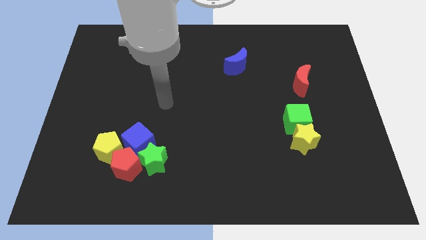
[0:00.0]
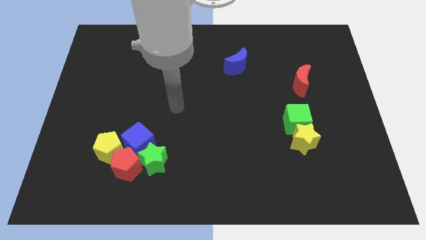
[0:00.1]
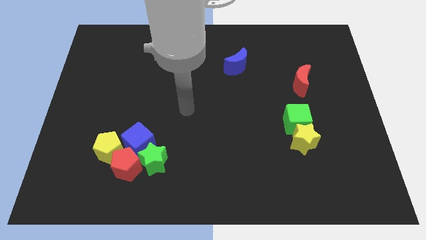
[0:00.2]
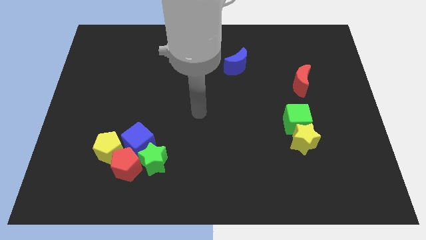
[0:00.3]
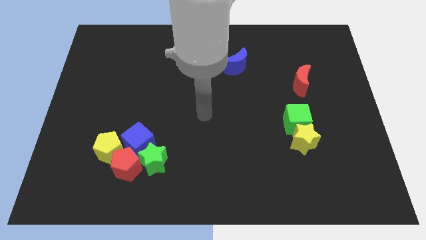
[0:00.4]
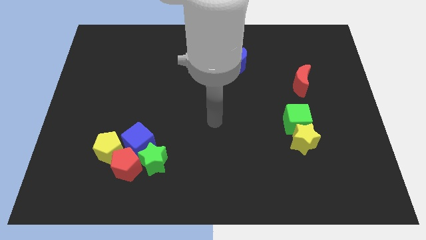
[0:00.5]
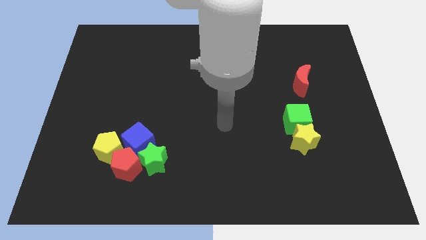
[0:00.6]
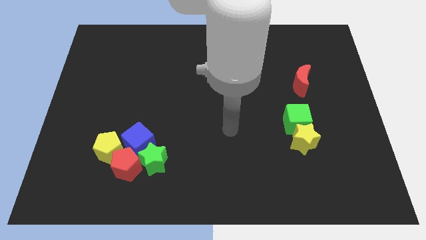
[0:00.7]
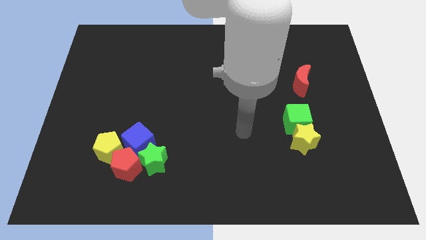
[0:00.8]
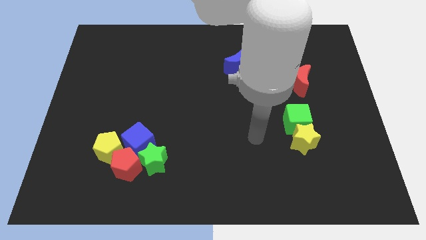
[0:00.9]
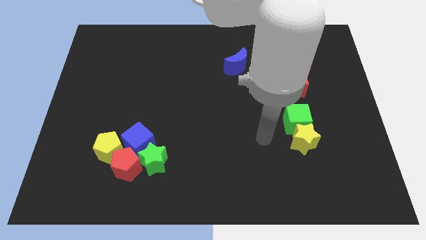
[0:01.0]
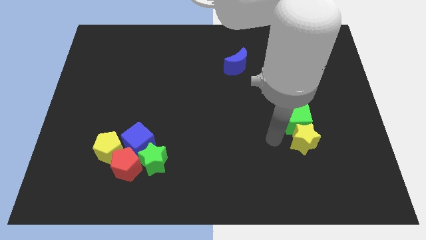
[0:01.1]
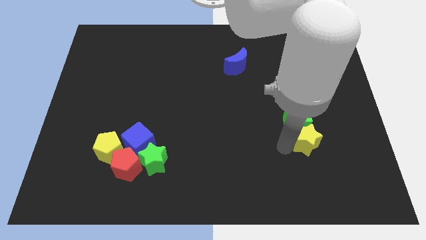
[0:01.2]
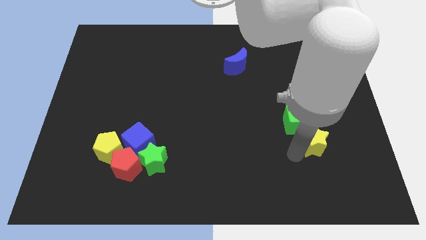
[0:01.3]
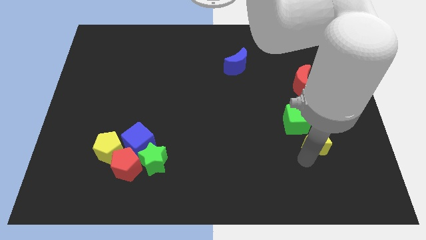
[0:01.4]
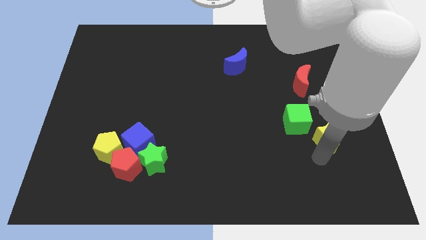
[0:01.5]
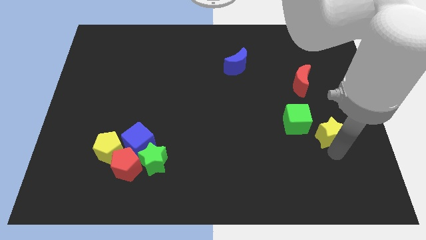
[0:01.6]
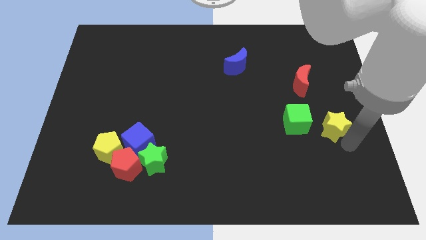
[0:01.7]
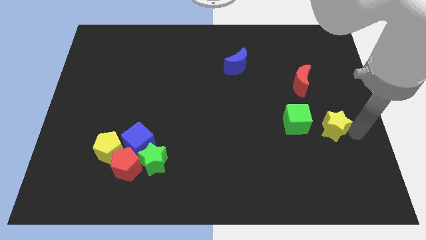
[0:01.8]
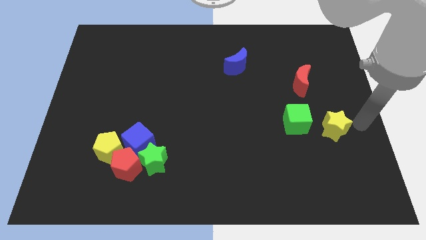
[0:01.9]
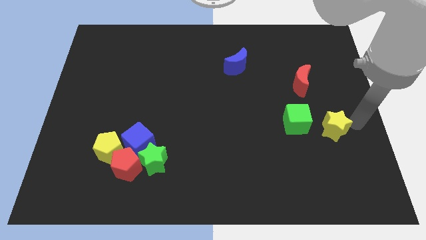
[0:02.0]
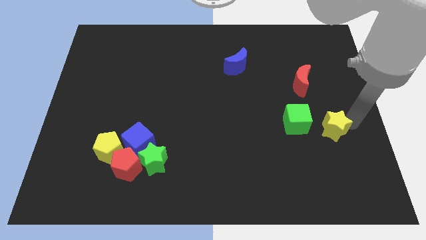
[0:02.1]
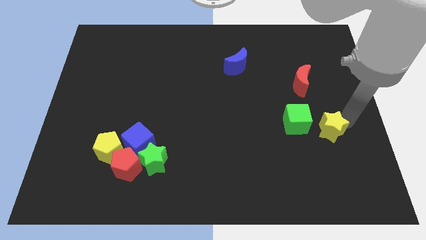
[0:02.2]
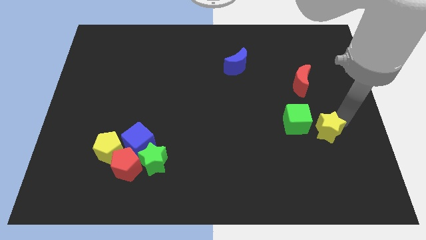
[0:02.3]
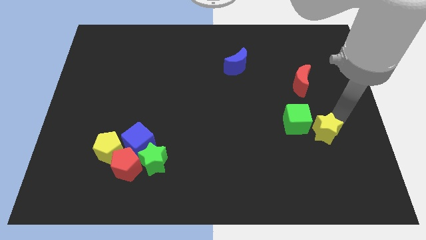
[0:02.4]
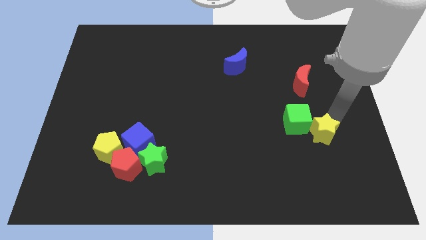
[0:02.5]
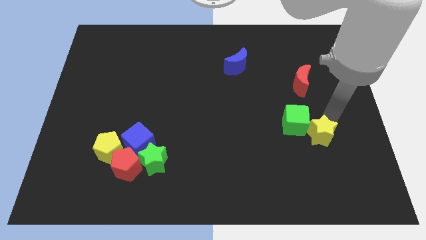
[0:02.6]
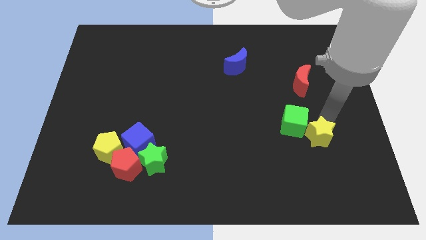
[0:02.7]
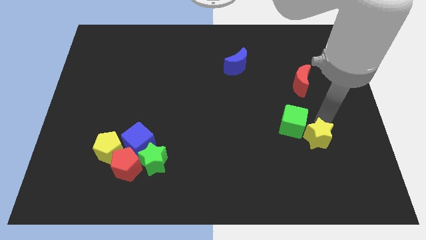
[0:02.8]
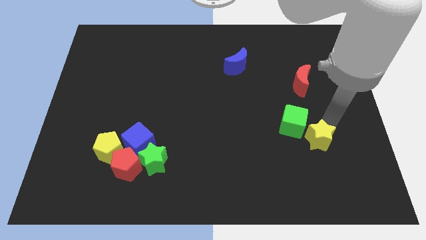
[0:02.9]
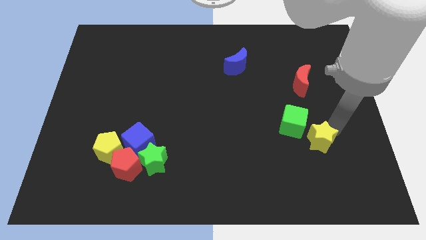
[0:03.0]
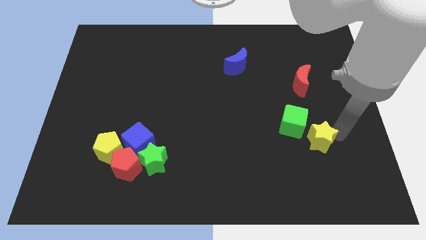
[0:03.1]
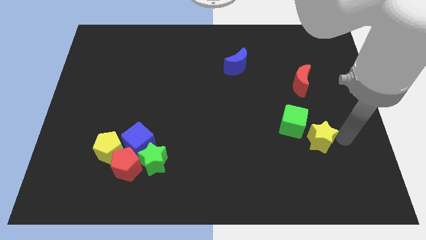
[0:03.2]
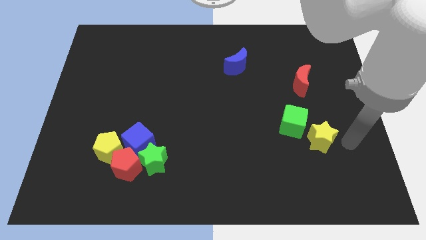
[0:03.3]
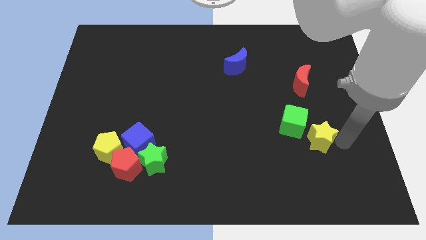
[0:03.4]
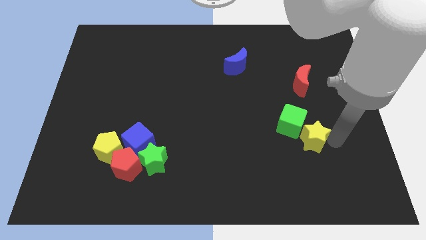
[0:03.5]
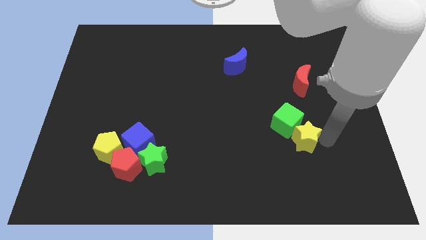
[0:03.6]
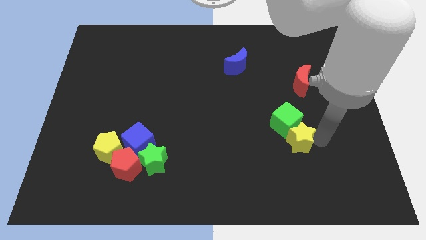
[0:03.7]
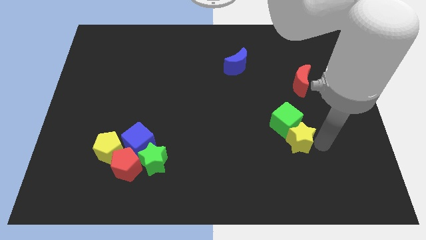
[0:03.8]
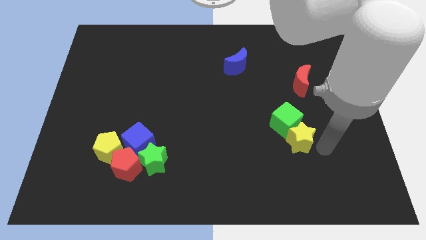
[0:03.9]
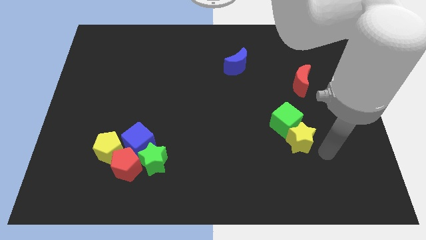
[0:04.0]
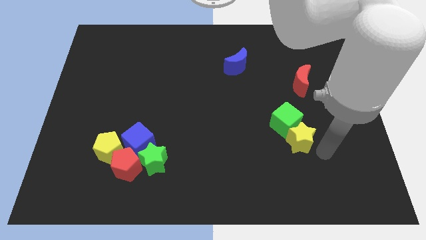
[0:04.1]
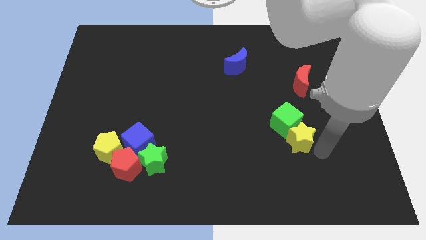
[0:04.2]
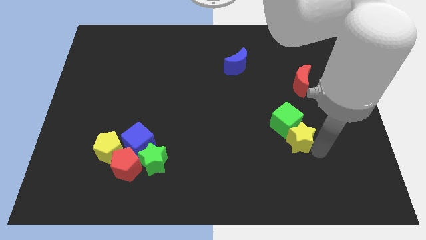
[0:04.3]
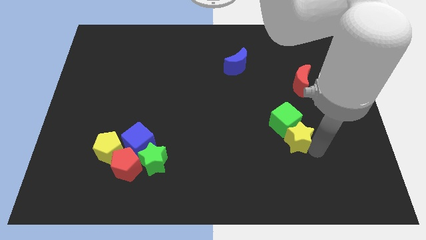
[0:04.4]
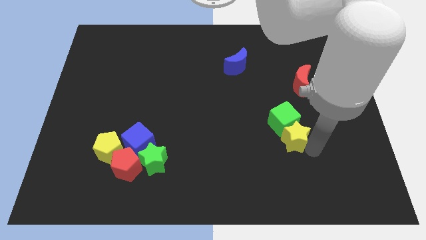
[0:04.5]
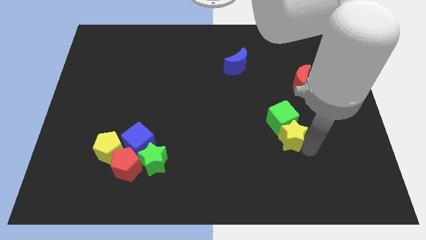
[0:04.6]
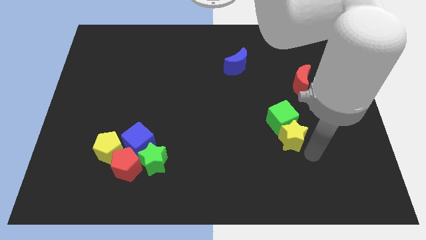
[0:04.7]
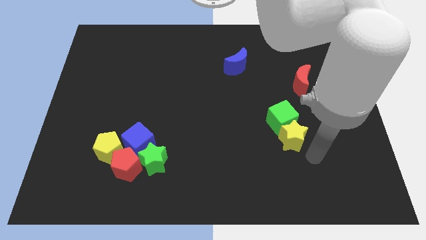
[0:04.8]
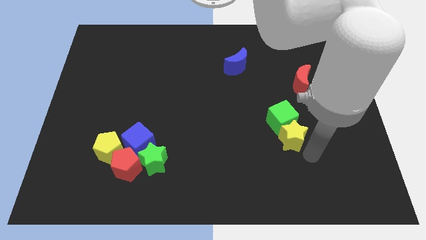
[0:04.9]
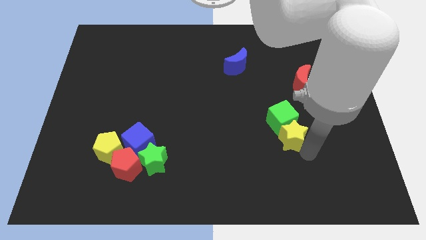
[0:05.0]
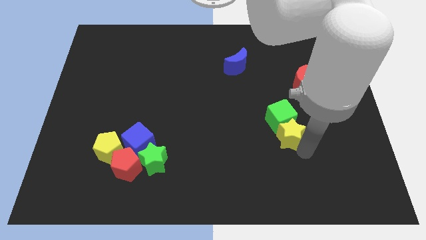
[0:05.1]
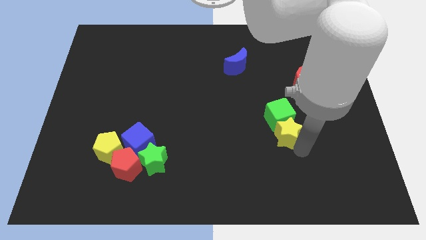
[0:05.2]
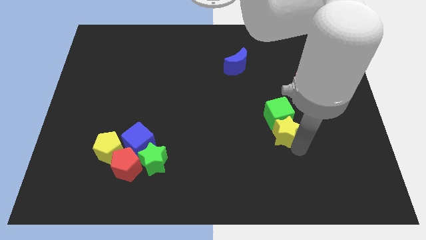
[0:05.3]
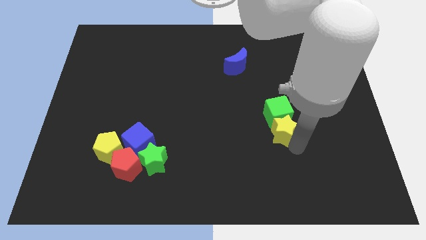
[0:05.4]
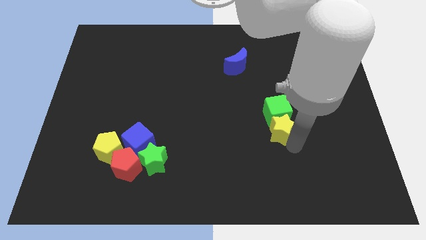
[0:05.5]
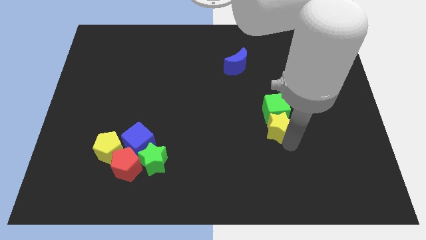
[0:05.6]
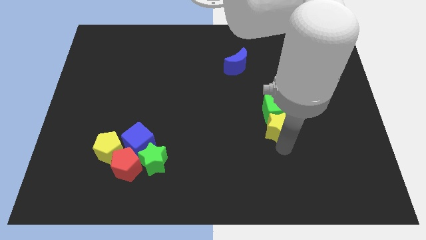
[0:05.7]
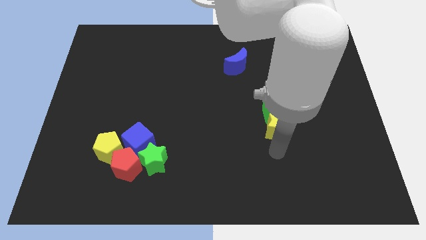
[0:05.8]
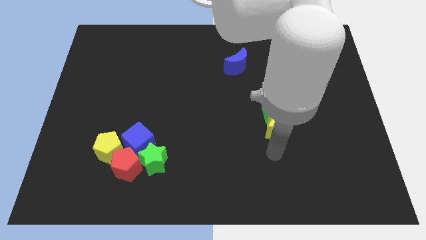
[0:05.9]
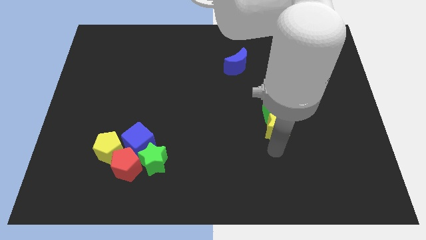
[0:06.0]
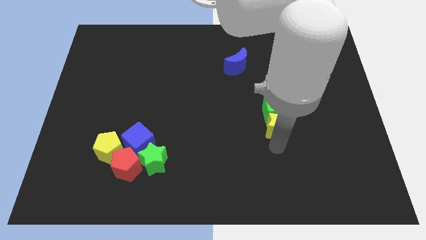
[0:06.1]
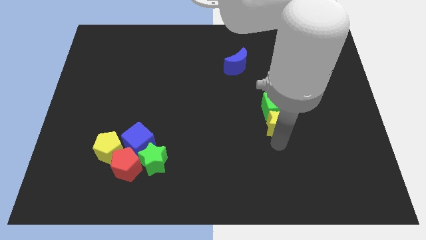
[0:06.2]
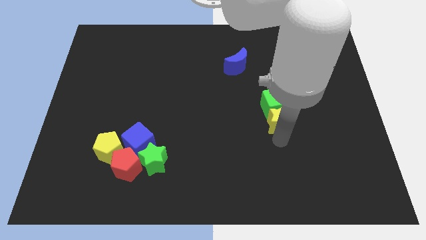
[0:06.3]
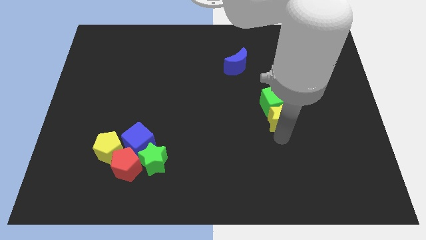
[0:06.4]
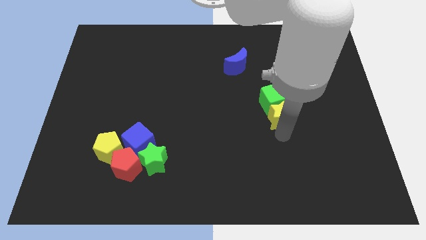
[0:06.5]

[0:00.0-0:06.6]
push the yellow star diagonally down and to the left of the red moon

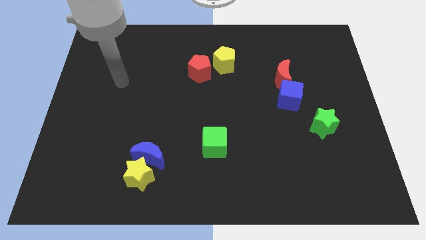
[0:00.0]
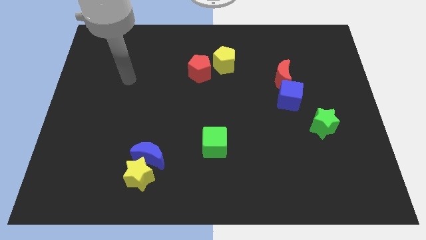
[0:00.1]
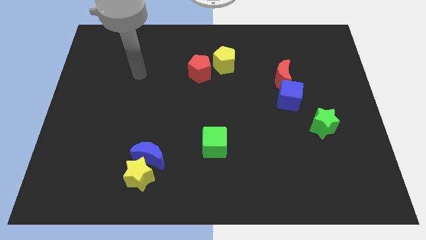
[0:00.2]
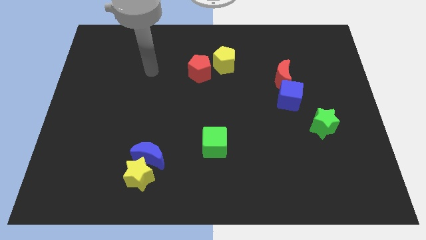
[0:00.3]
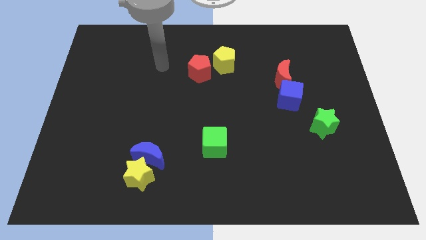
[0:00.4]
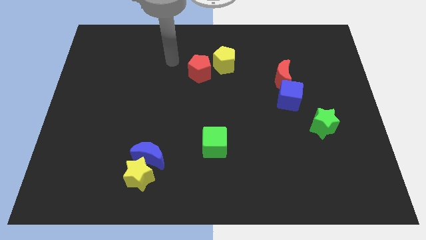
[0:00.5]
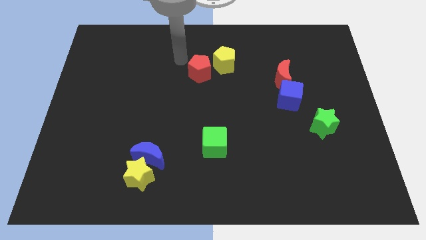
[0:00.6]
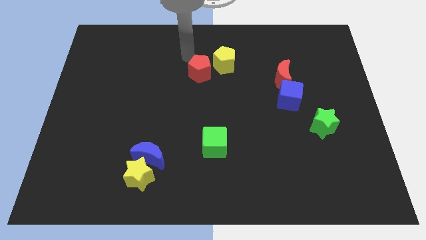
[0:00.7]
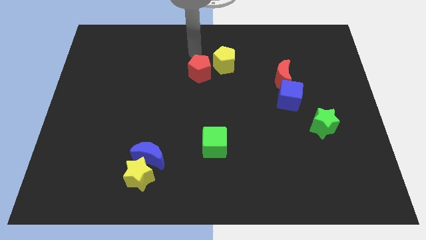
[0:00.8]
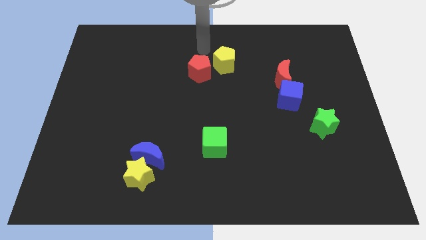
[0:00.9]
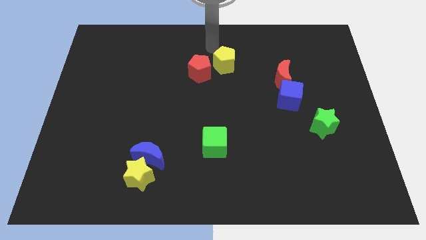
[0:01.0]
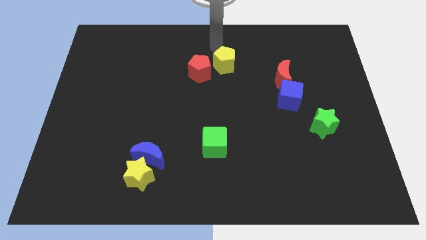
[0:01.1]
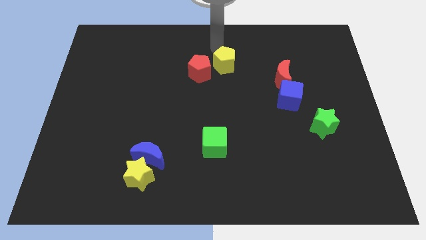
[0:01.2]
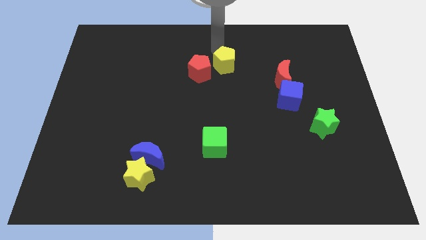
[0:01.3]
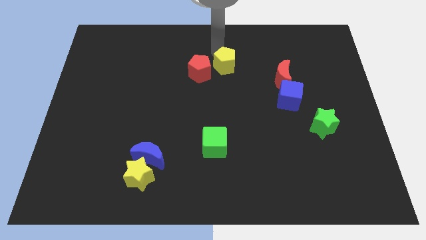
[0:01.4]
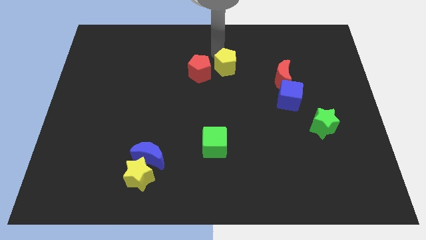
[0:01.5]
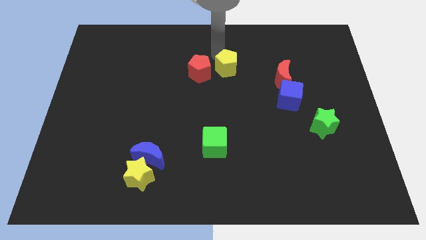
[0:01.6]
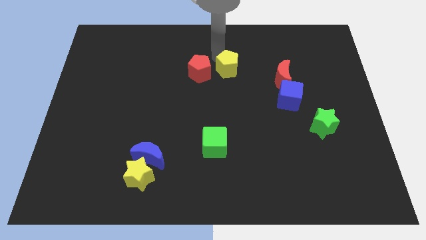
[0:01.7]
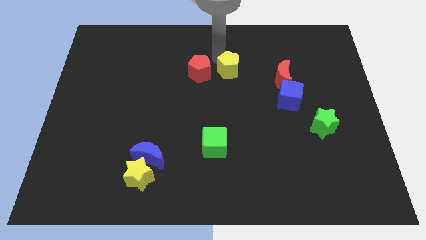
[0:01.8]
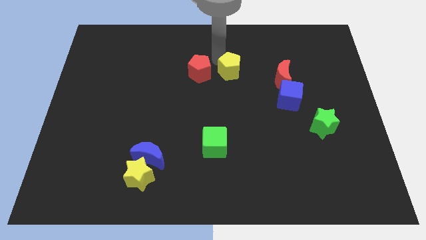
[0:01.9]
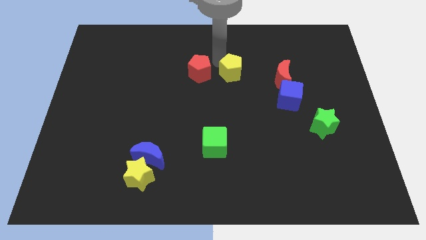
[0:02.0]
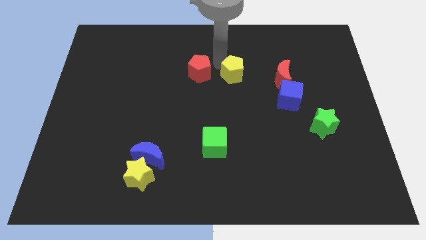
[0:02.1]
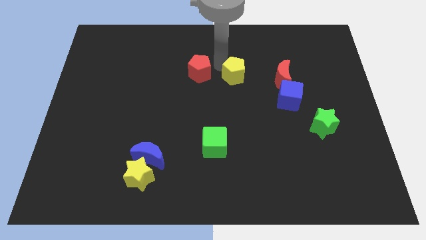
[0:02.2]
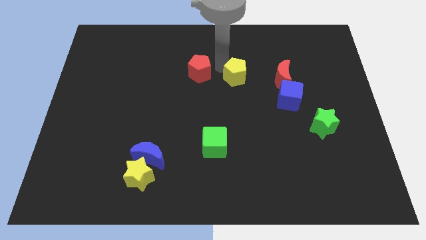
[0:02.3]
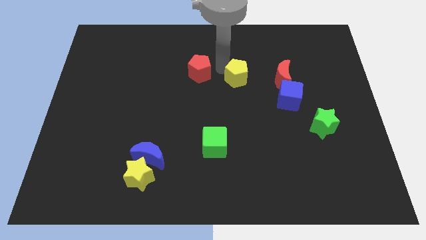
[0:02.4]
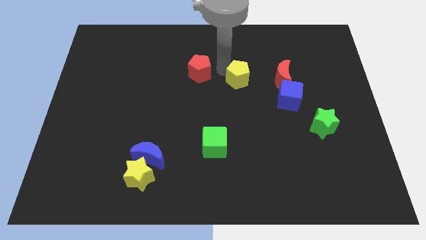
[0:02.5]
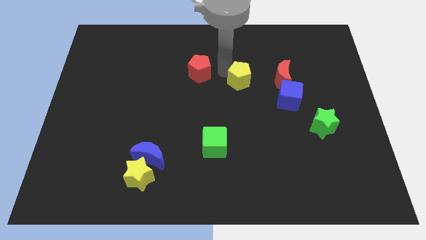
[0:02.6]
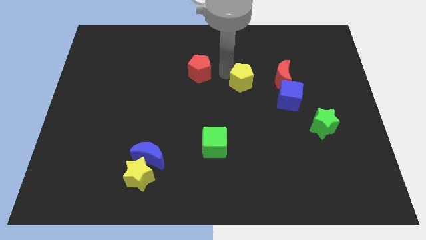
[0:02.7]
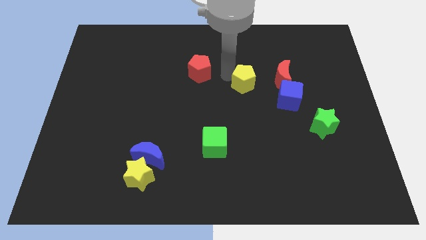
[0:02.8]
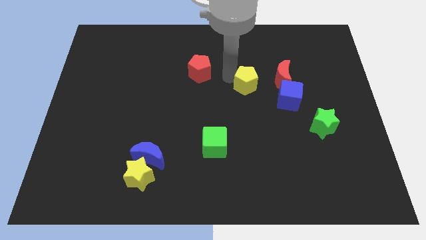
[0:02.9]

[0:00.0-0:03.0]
slide the yellow pentagon to the left side of the blue cube
